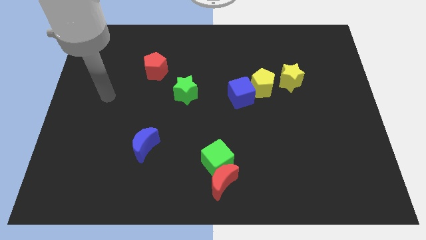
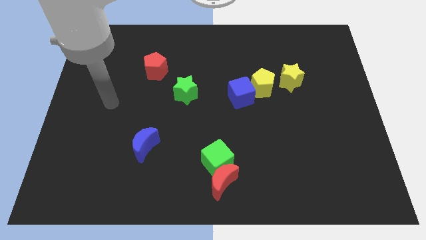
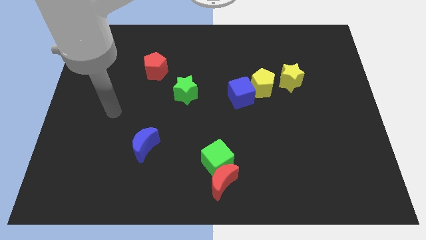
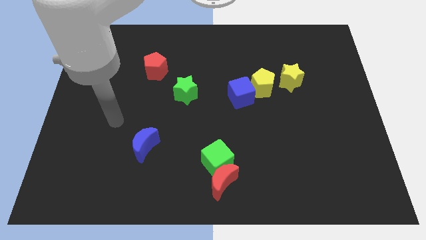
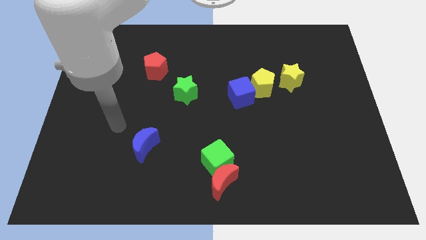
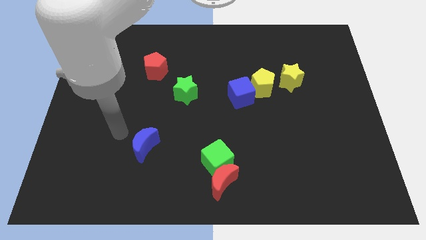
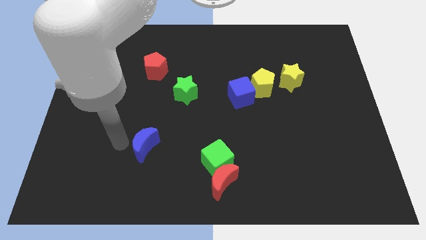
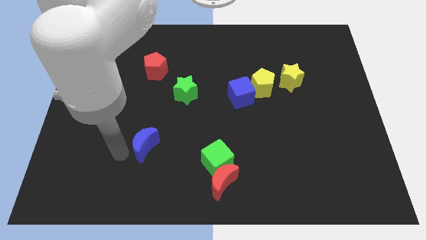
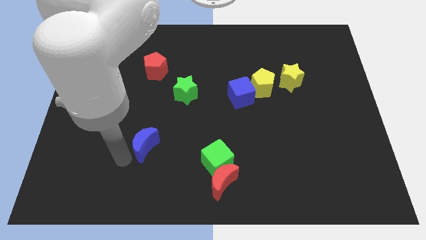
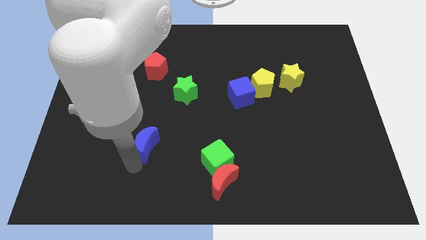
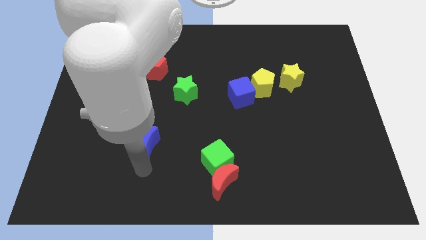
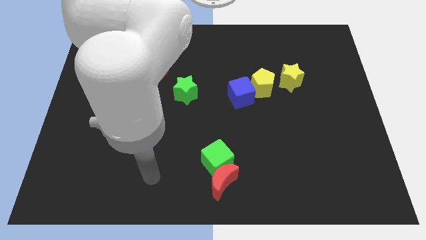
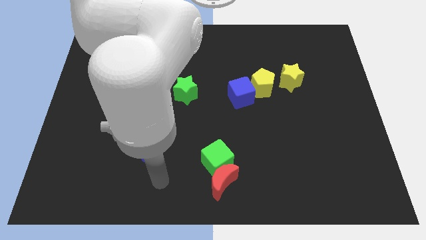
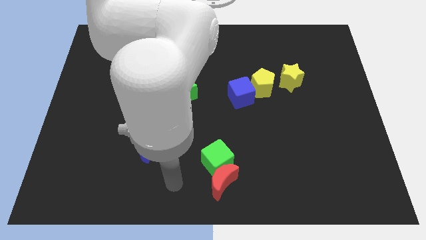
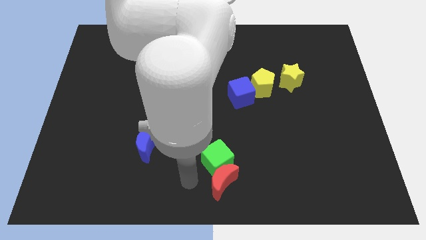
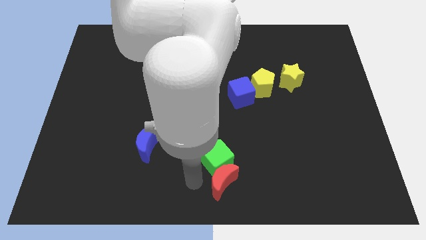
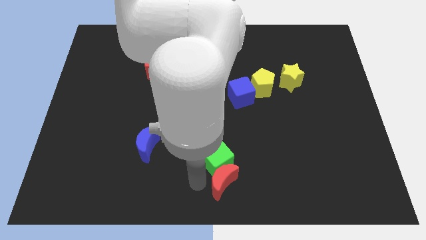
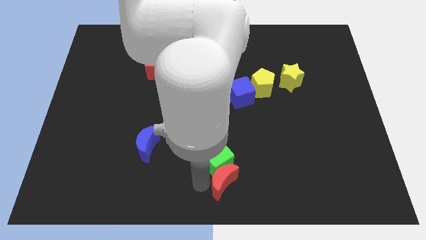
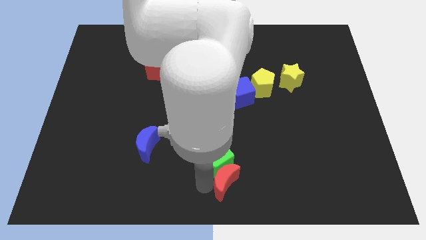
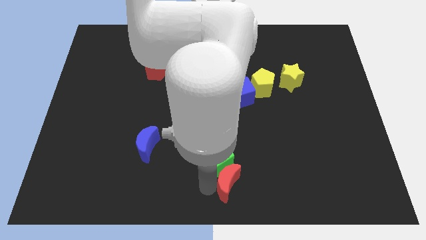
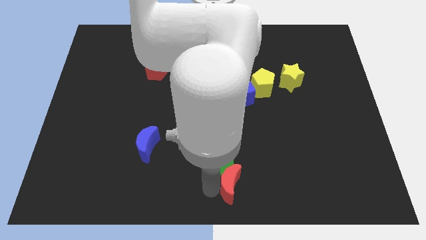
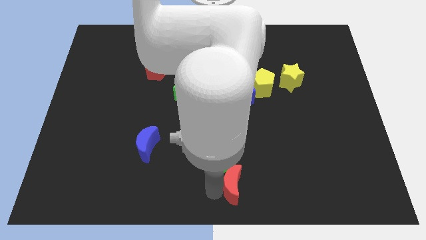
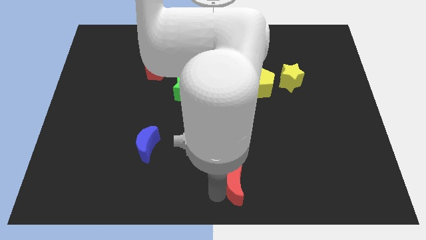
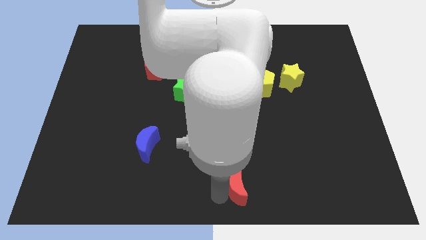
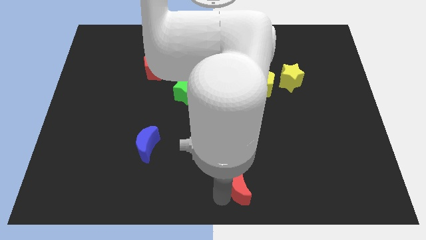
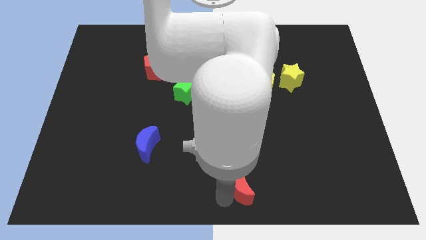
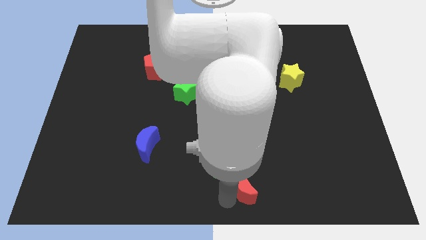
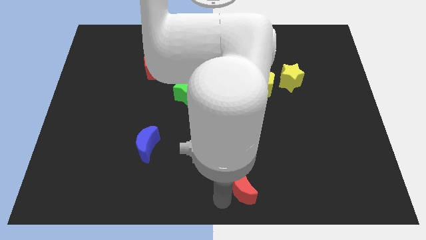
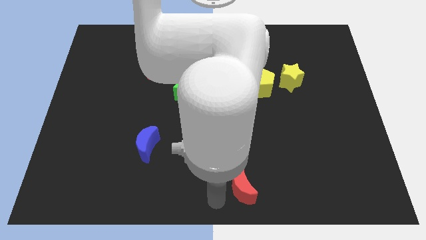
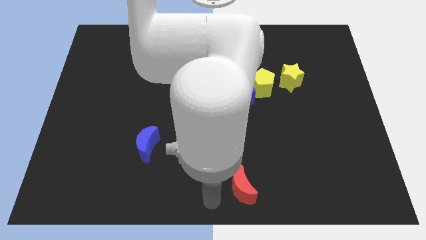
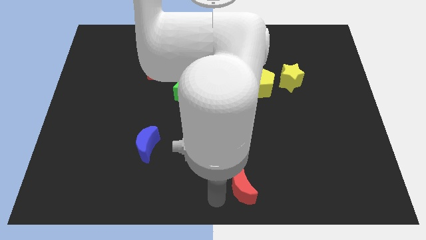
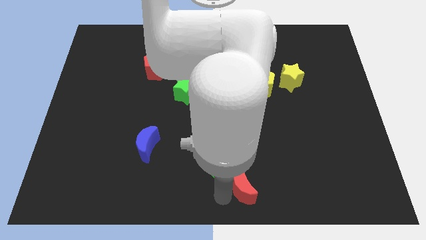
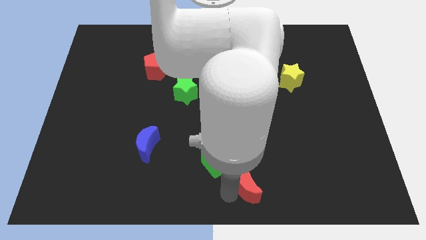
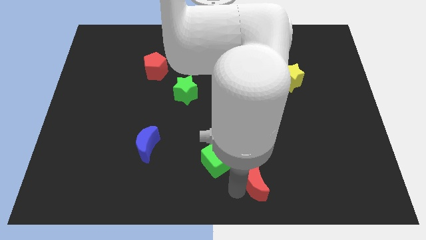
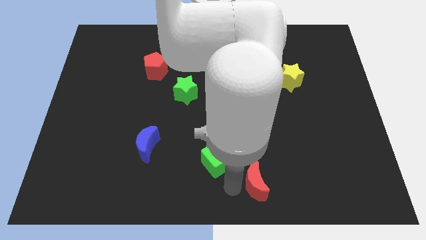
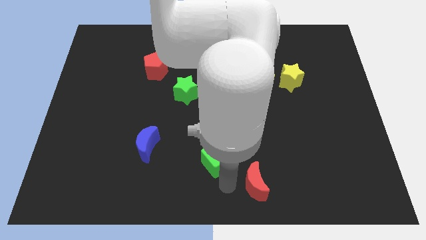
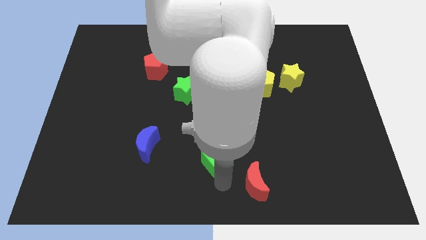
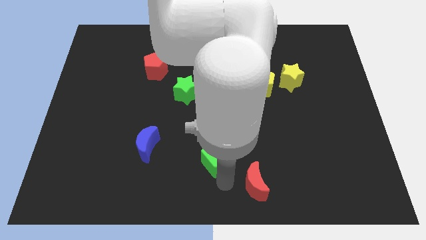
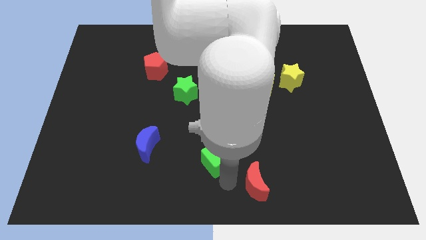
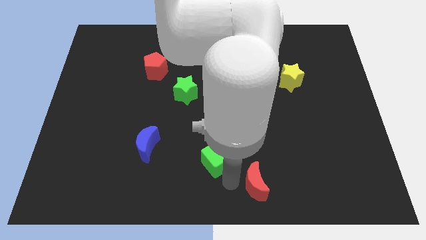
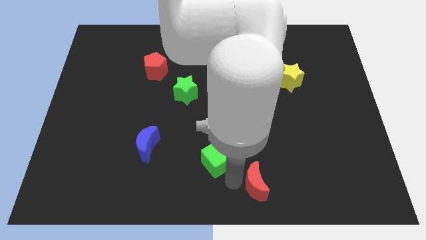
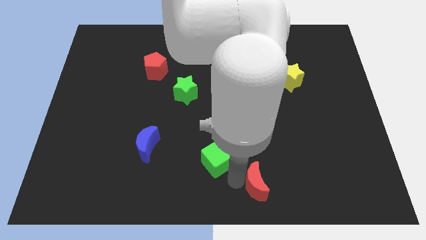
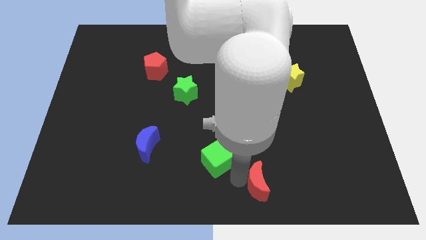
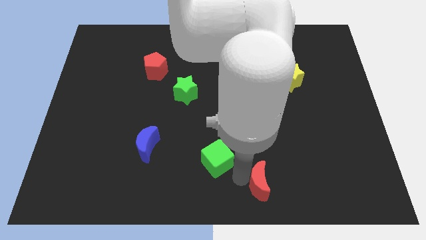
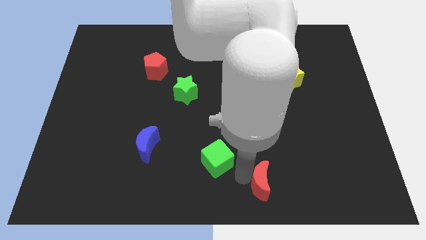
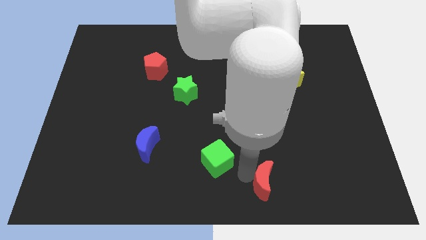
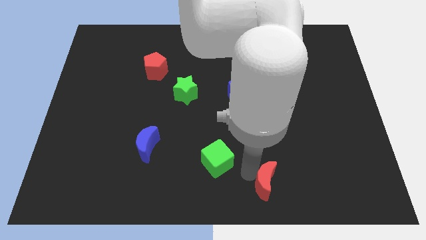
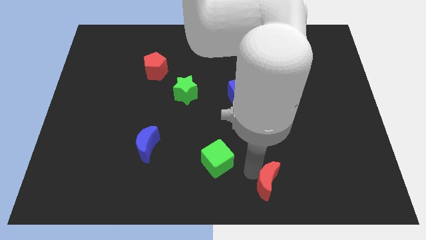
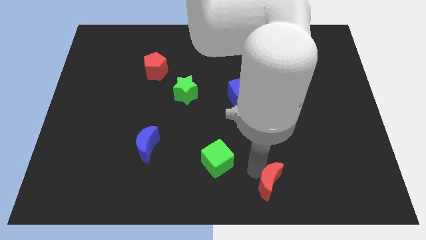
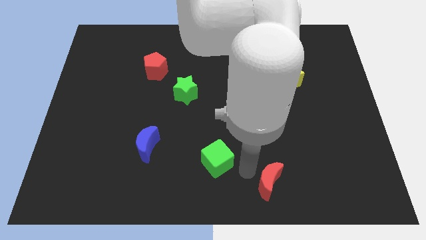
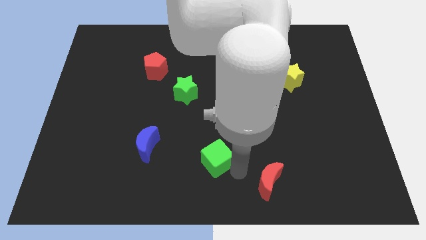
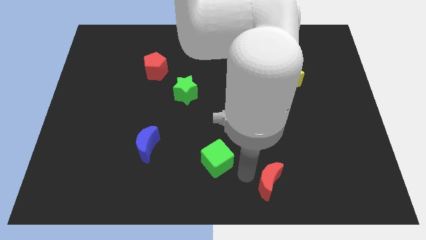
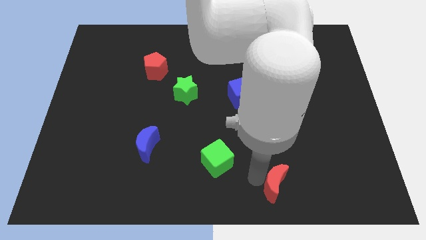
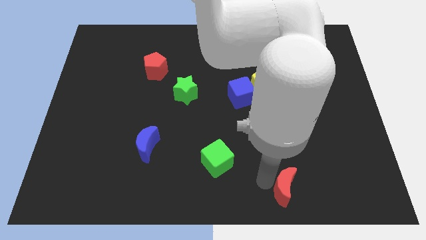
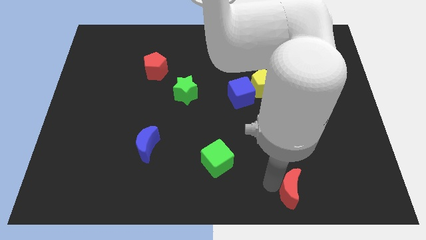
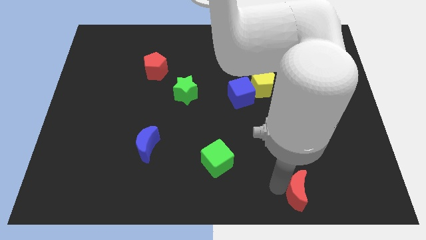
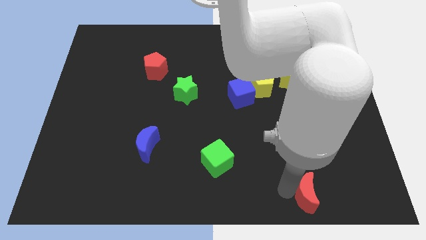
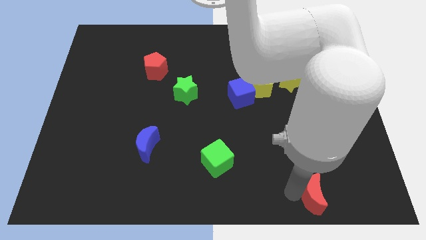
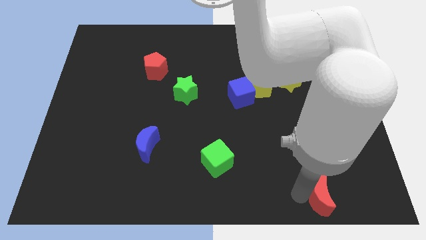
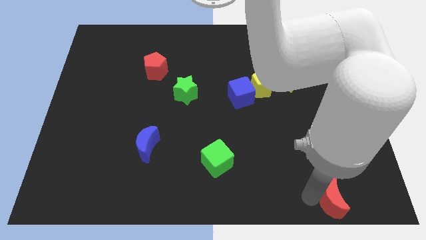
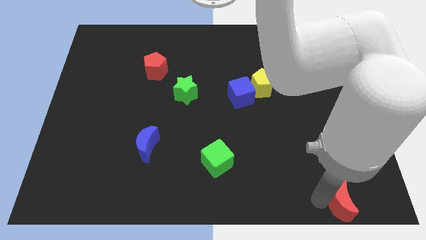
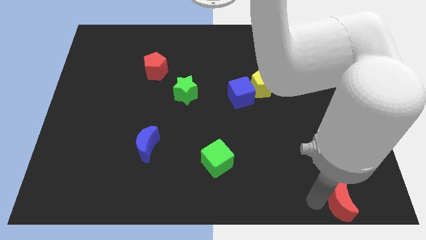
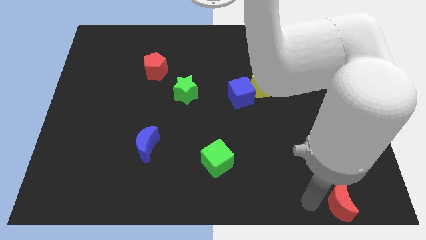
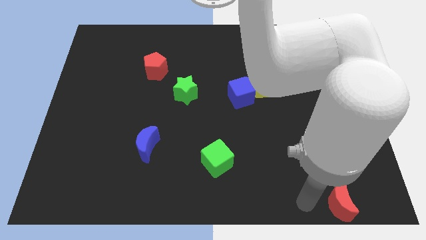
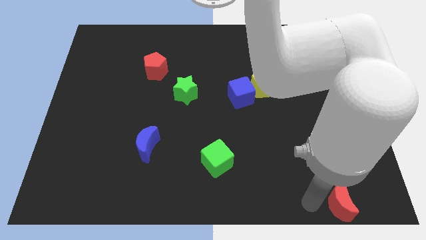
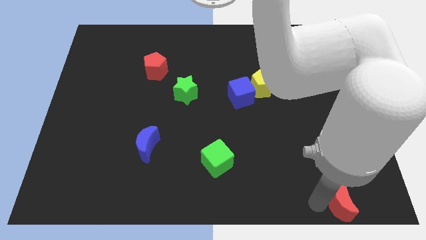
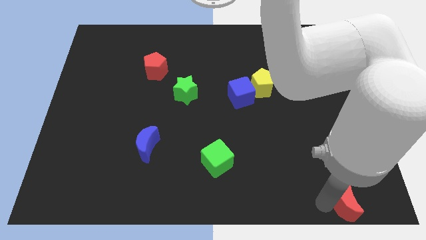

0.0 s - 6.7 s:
move the red moon to the bottom right corner

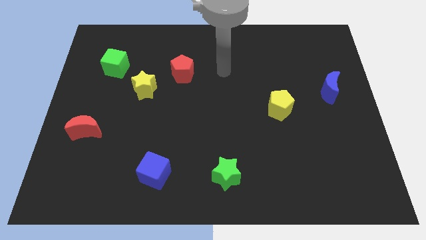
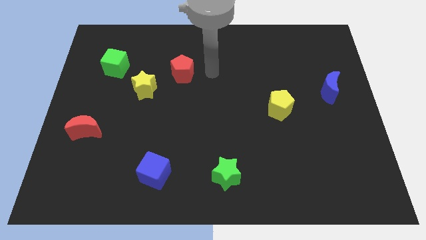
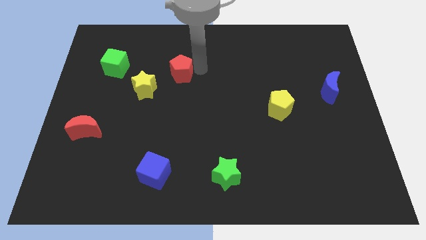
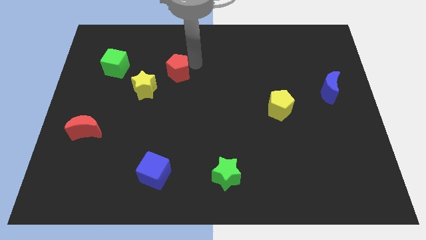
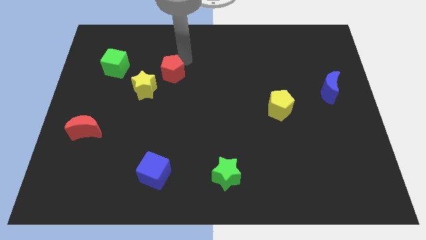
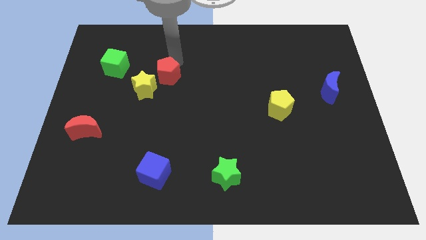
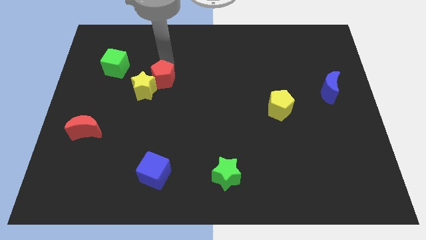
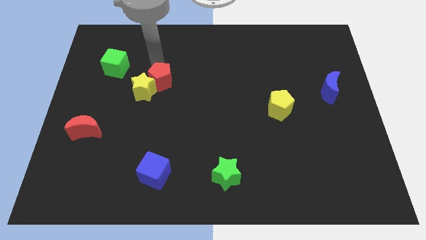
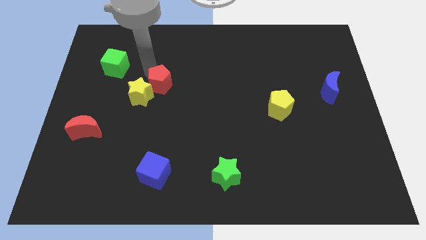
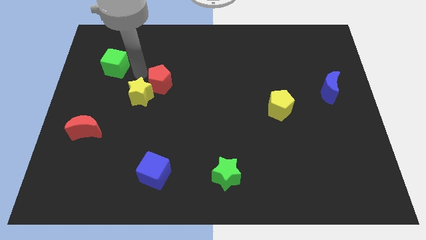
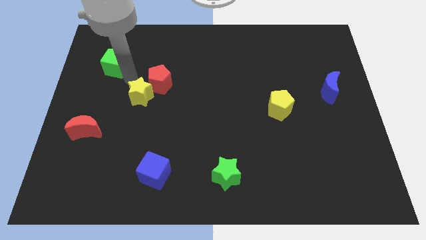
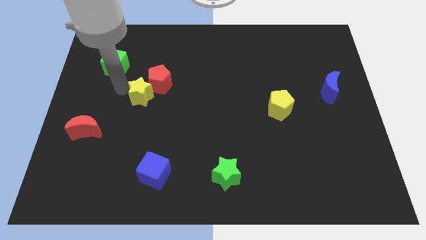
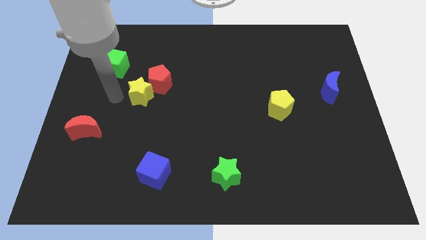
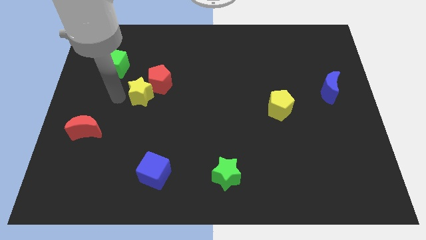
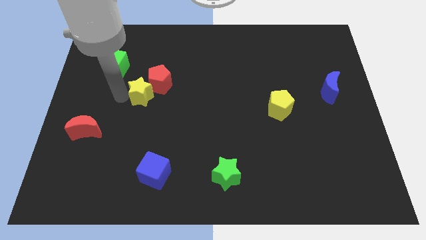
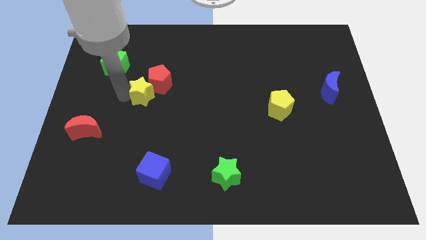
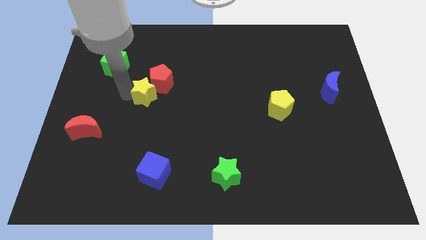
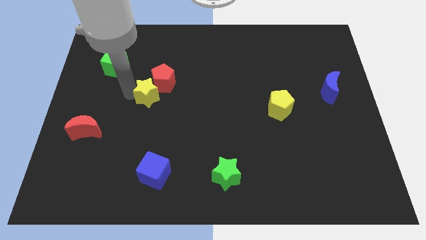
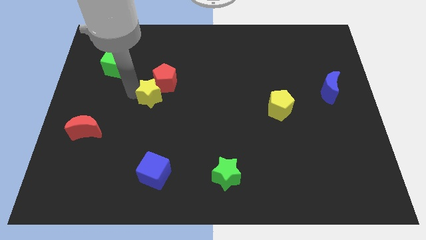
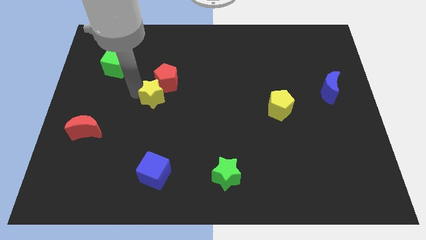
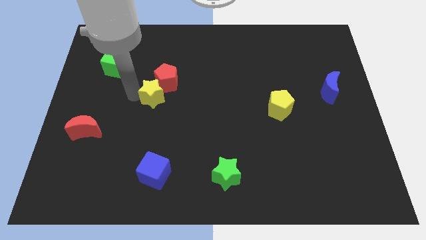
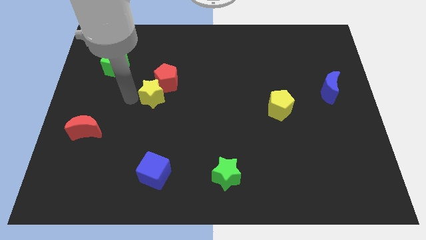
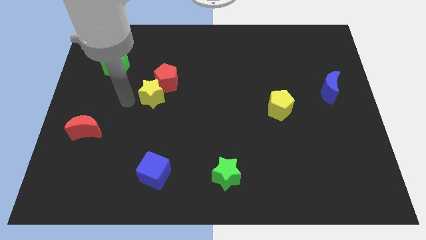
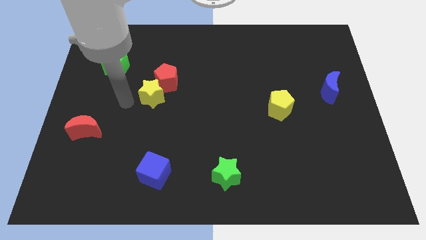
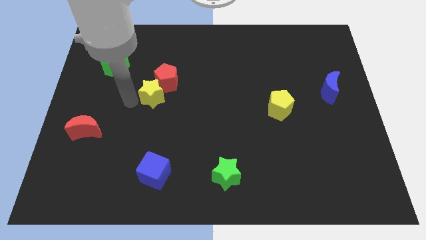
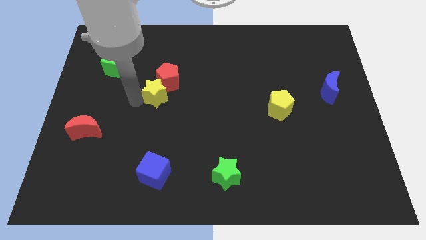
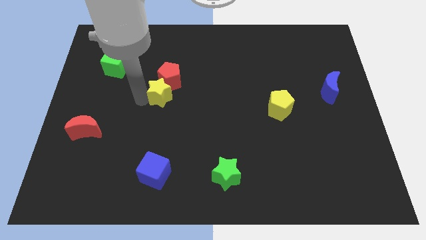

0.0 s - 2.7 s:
put the yellow star to the center
